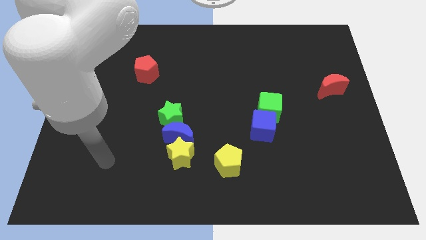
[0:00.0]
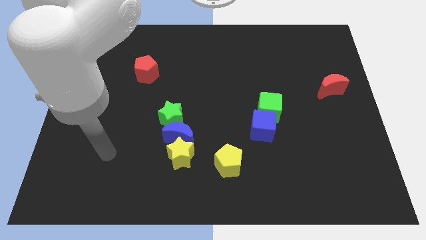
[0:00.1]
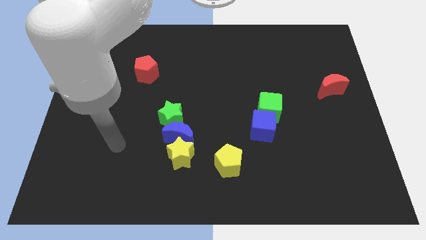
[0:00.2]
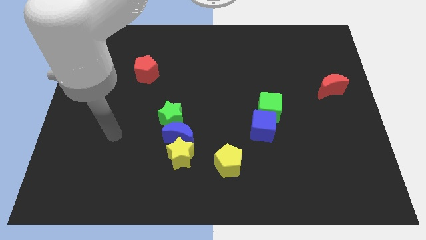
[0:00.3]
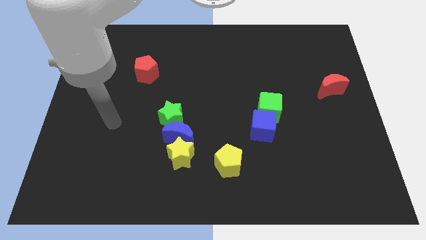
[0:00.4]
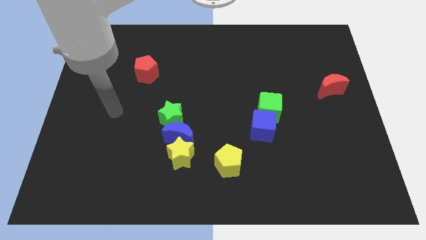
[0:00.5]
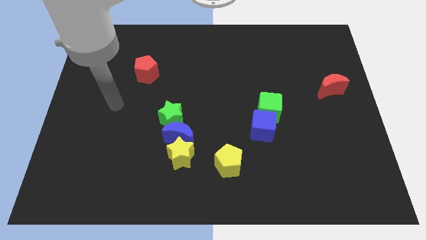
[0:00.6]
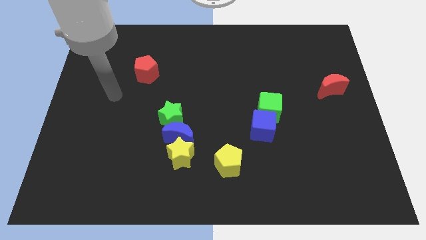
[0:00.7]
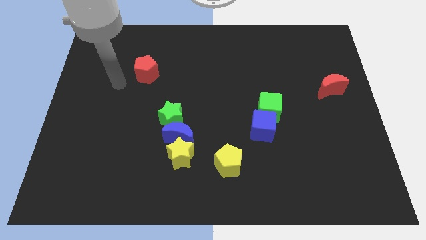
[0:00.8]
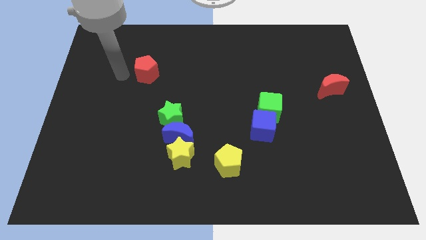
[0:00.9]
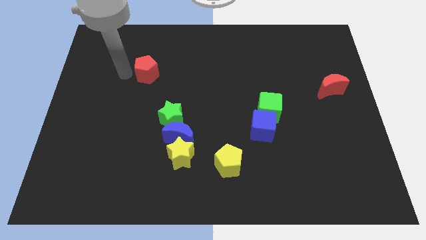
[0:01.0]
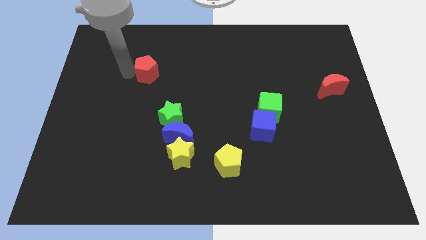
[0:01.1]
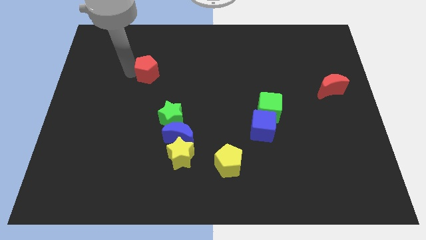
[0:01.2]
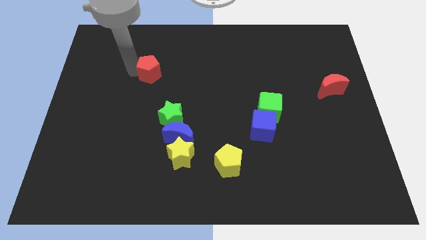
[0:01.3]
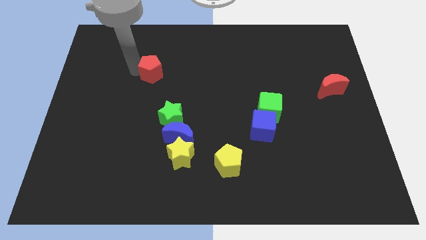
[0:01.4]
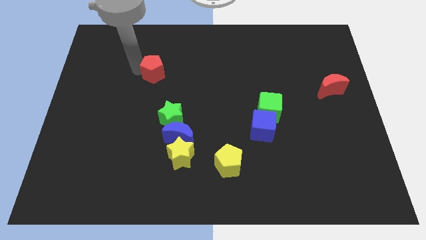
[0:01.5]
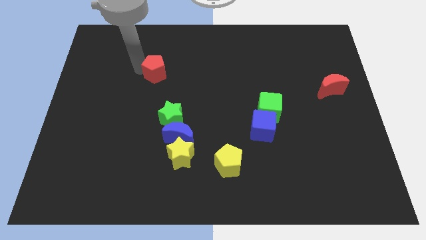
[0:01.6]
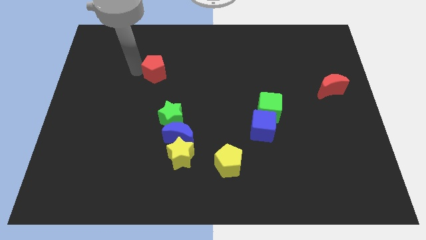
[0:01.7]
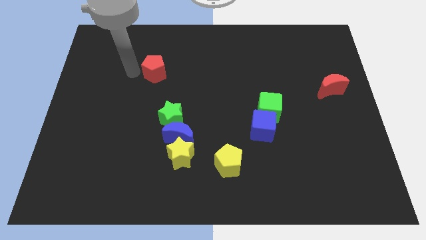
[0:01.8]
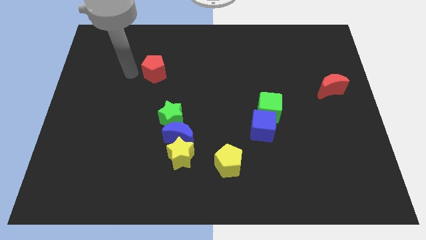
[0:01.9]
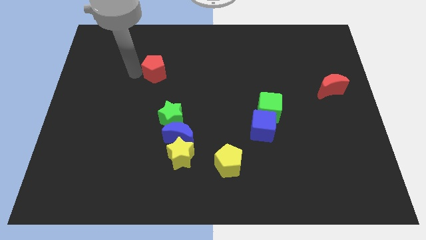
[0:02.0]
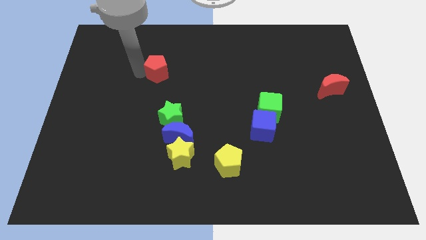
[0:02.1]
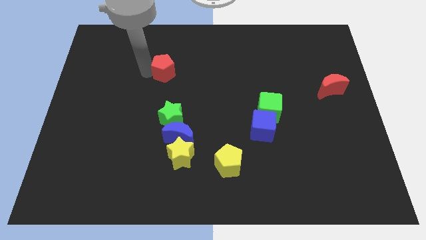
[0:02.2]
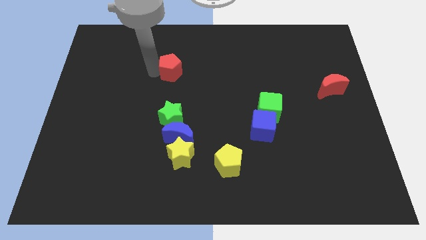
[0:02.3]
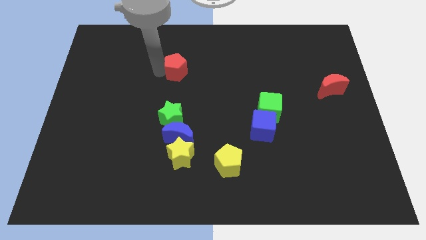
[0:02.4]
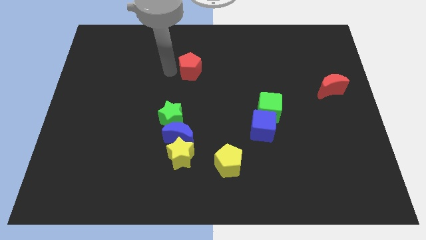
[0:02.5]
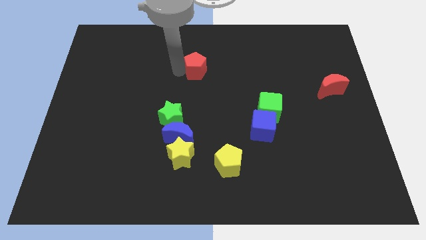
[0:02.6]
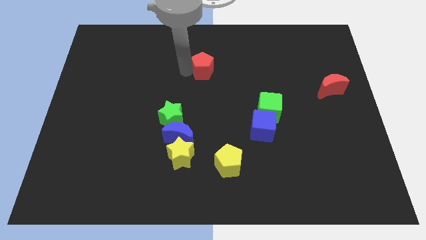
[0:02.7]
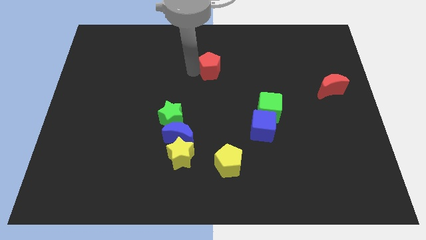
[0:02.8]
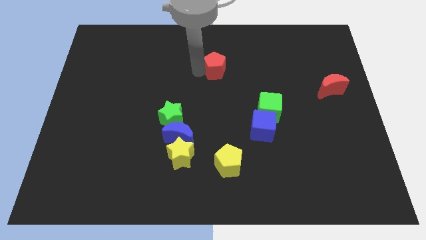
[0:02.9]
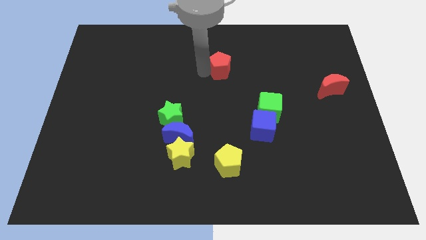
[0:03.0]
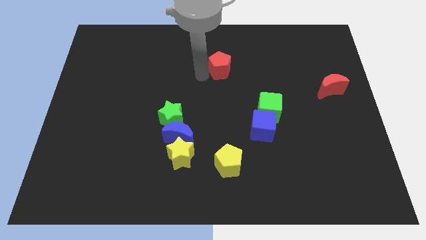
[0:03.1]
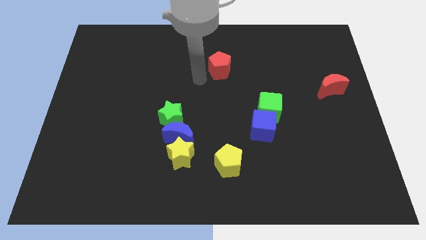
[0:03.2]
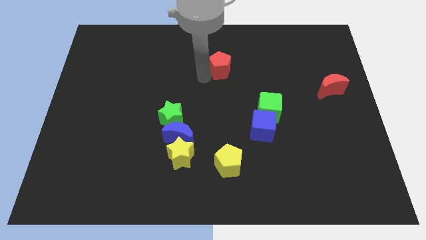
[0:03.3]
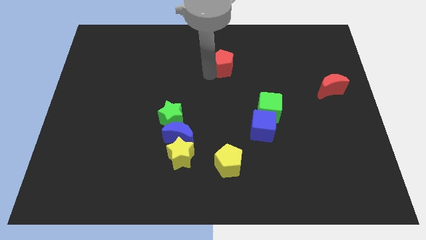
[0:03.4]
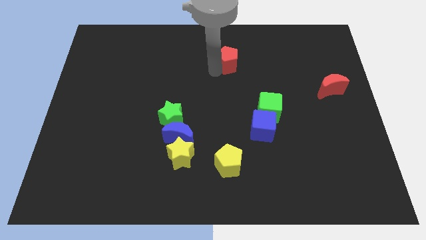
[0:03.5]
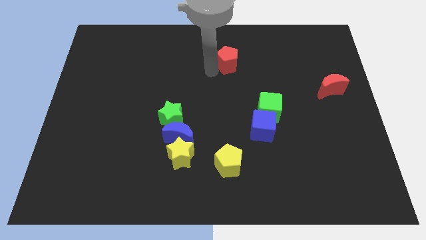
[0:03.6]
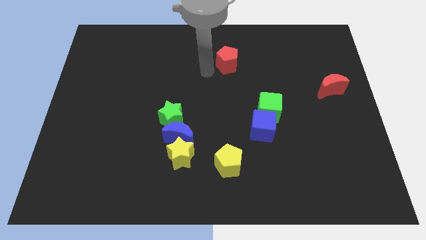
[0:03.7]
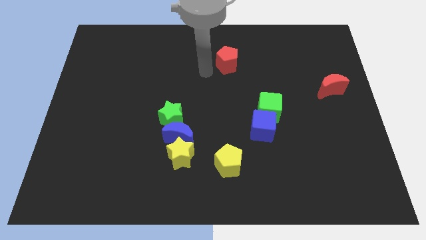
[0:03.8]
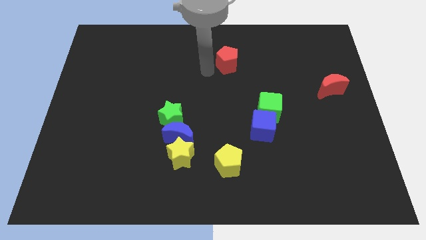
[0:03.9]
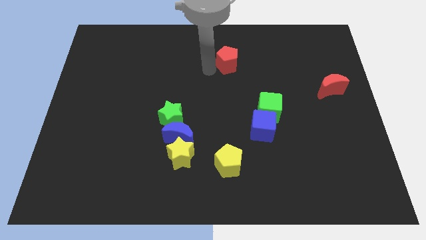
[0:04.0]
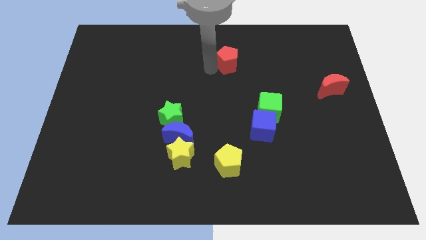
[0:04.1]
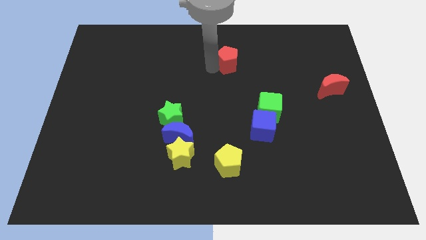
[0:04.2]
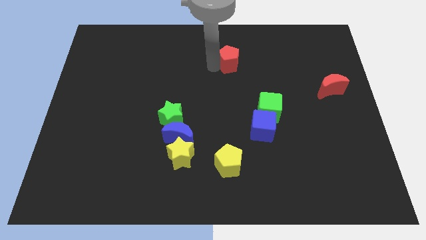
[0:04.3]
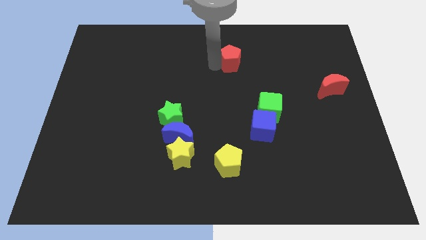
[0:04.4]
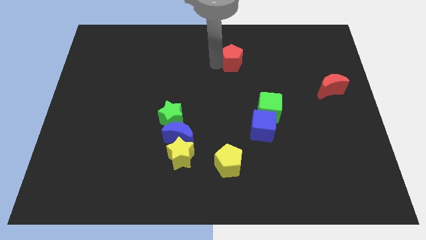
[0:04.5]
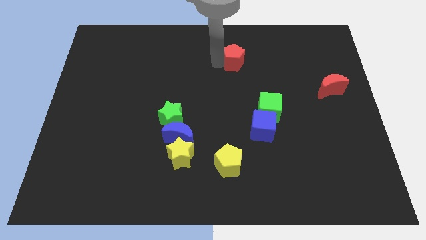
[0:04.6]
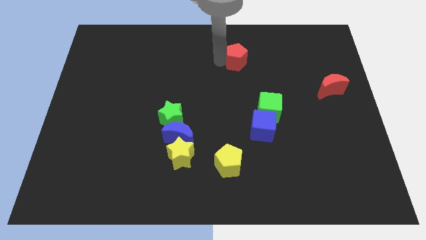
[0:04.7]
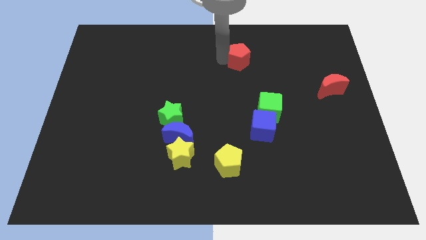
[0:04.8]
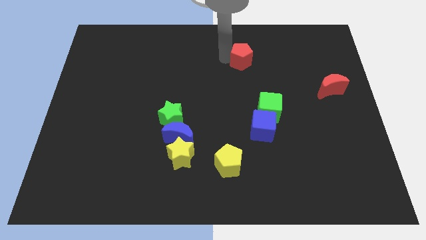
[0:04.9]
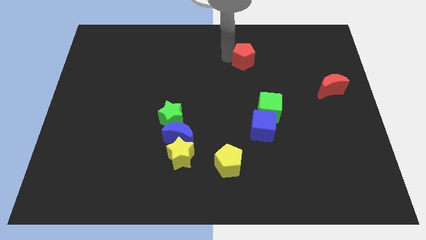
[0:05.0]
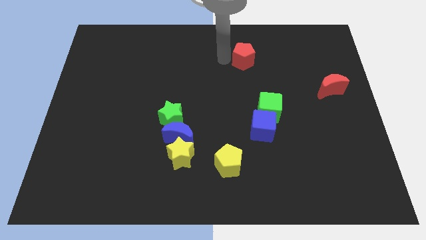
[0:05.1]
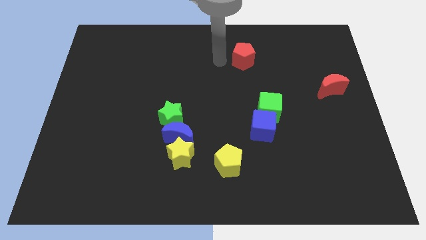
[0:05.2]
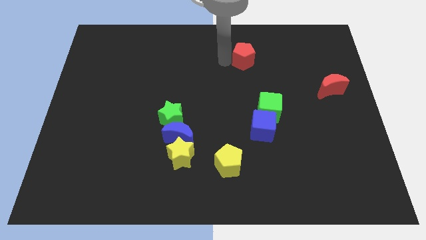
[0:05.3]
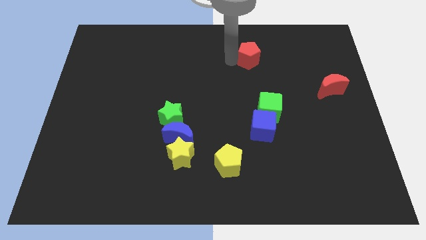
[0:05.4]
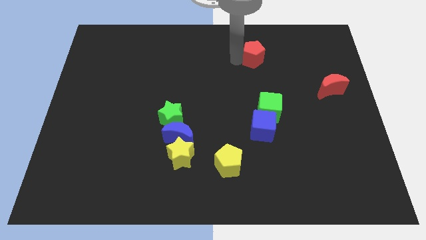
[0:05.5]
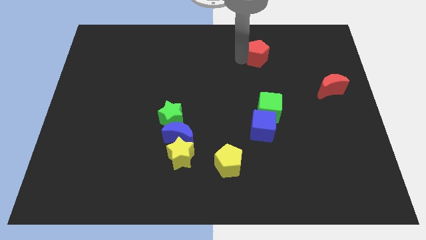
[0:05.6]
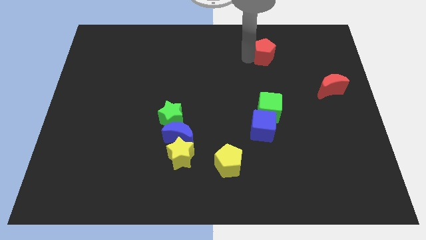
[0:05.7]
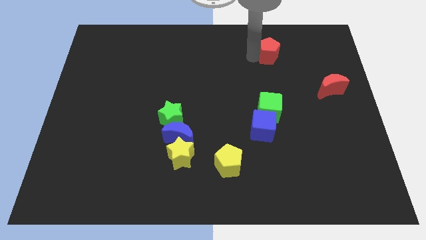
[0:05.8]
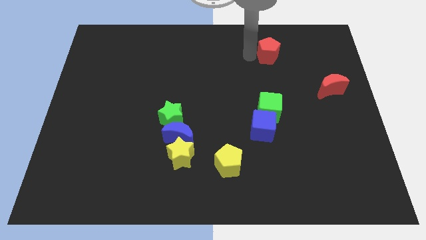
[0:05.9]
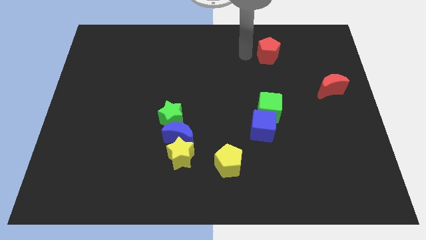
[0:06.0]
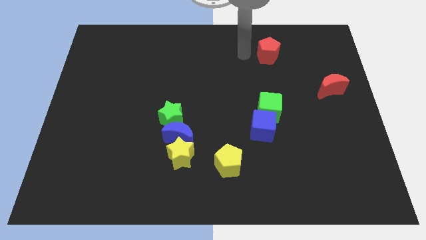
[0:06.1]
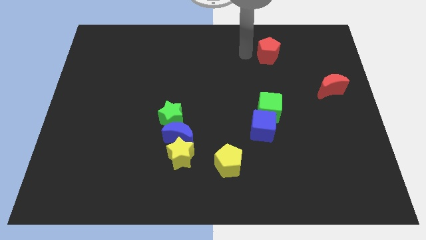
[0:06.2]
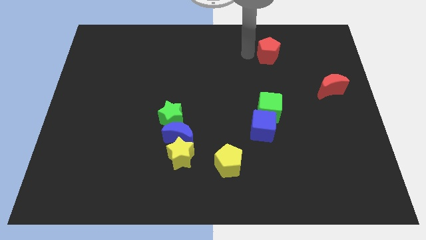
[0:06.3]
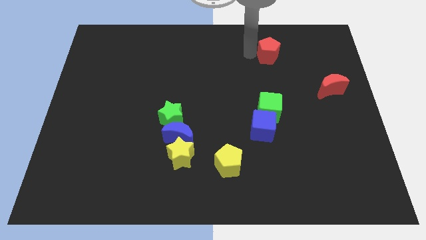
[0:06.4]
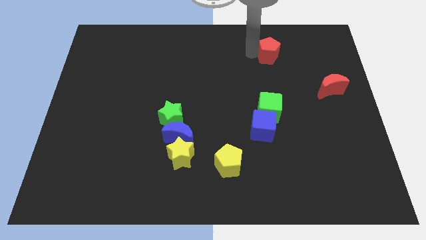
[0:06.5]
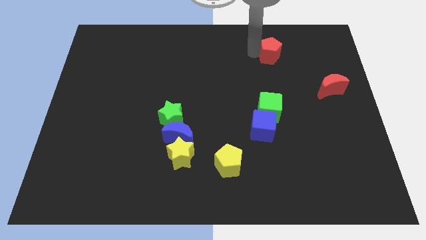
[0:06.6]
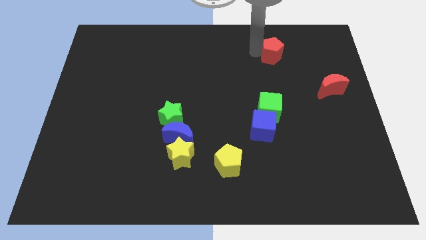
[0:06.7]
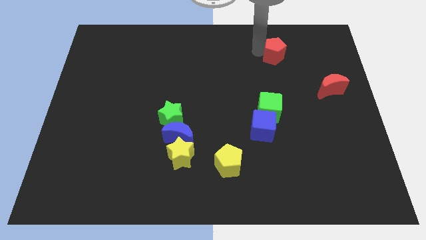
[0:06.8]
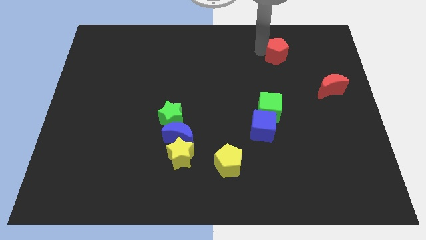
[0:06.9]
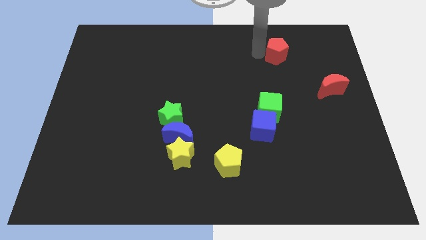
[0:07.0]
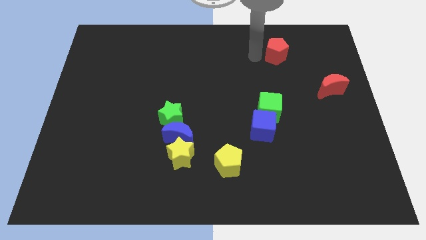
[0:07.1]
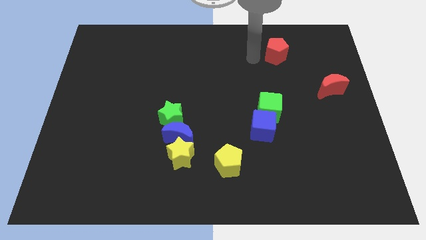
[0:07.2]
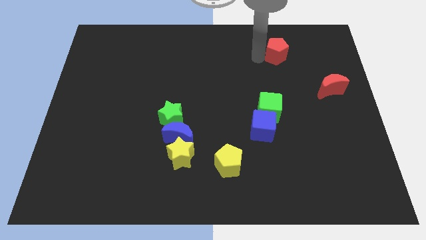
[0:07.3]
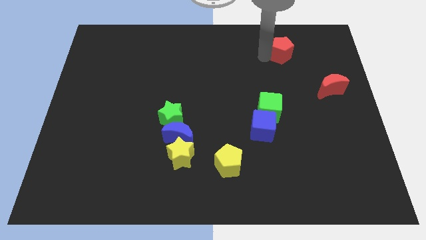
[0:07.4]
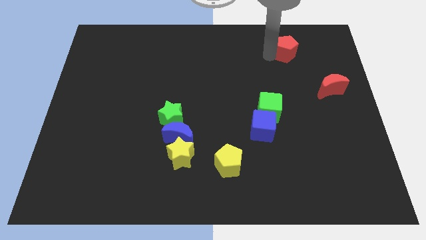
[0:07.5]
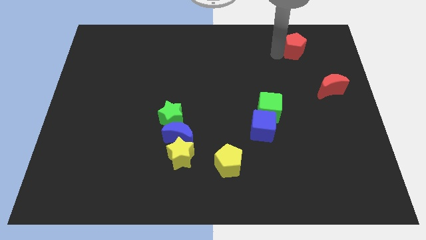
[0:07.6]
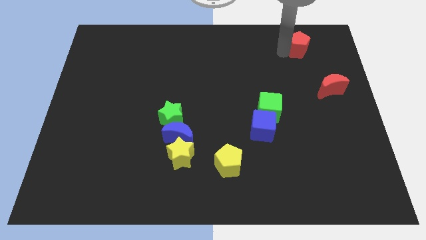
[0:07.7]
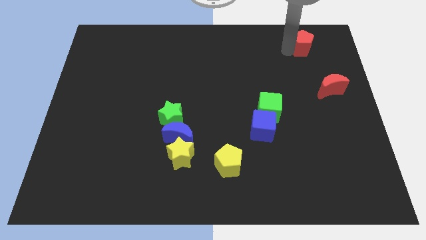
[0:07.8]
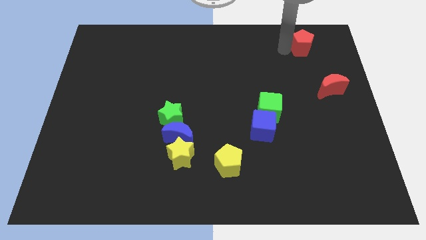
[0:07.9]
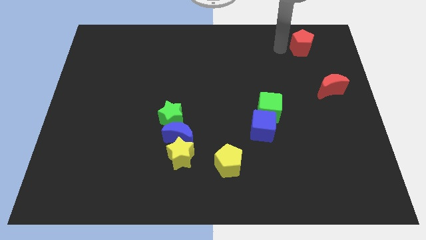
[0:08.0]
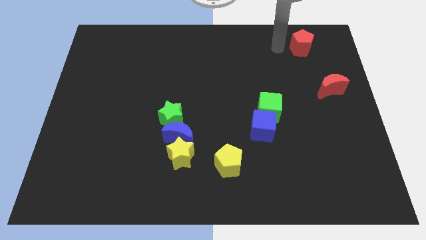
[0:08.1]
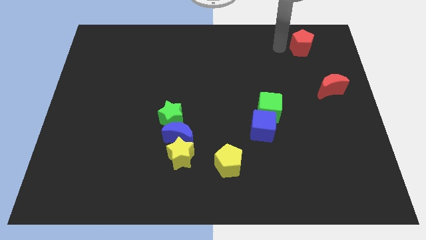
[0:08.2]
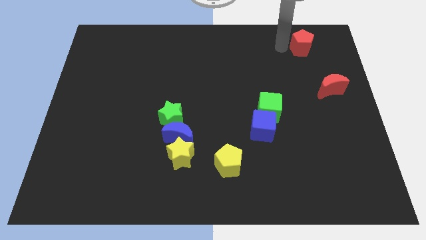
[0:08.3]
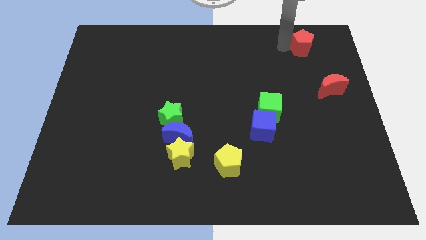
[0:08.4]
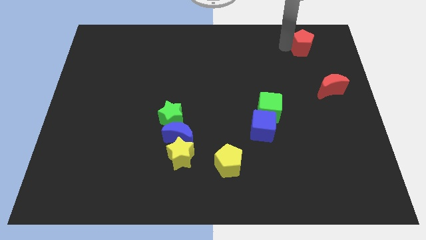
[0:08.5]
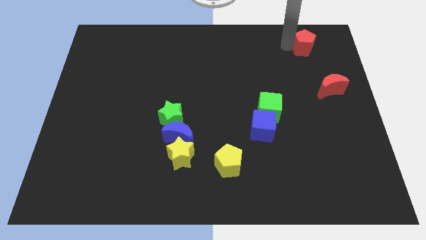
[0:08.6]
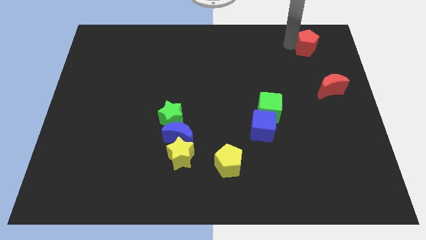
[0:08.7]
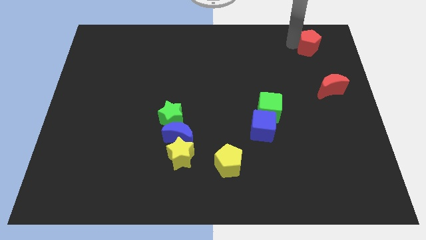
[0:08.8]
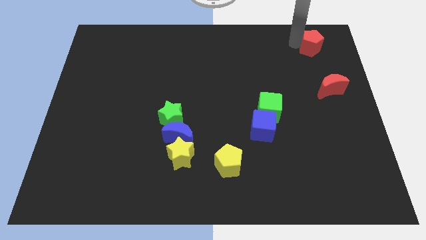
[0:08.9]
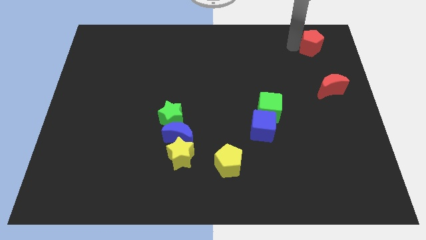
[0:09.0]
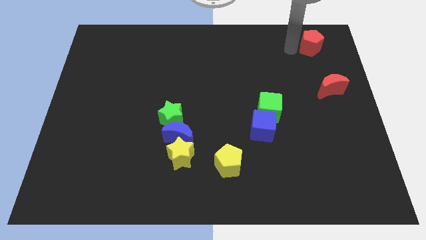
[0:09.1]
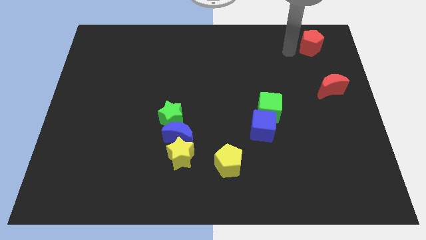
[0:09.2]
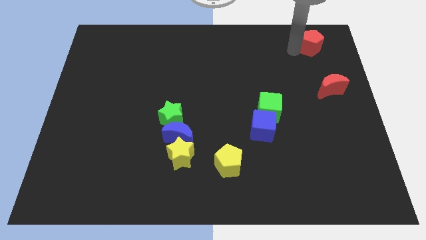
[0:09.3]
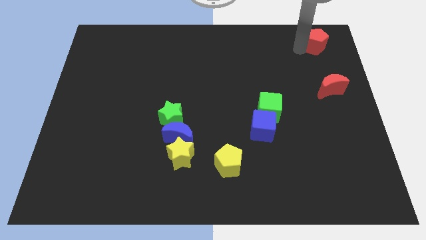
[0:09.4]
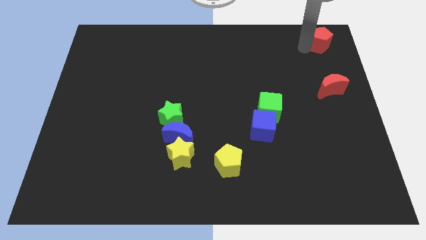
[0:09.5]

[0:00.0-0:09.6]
put the red pentagon to the top right
